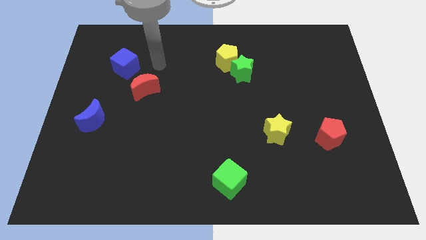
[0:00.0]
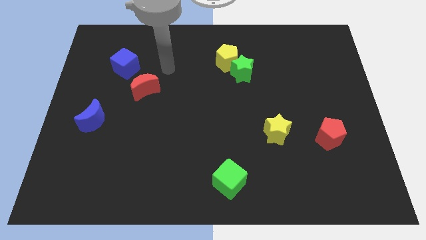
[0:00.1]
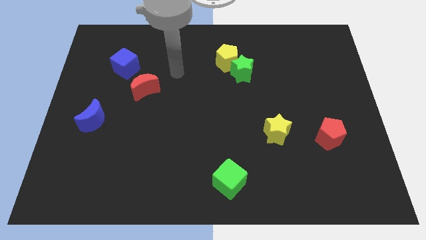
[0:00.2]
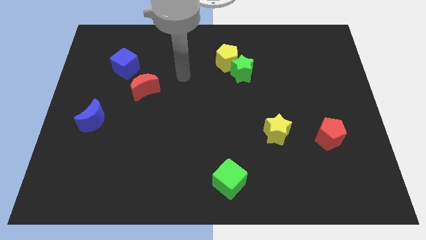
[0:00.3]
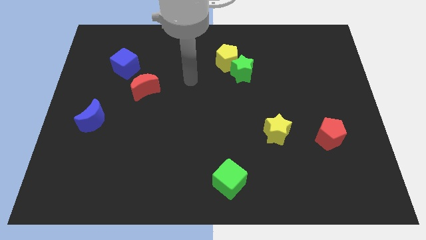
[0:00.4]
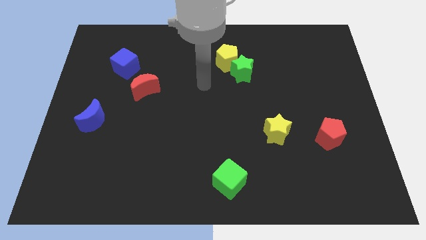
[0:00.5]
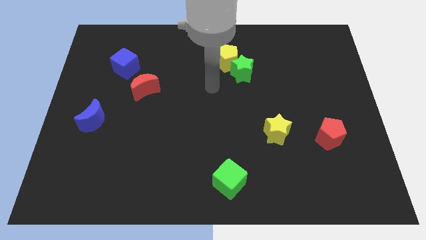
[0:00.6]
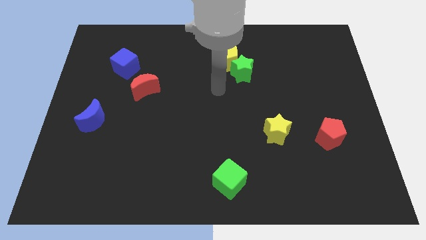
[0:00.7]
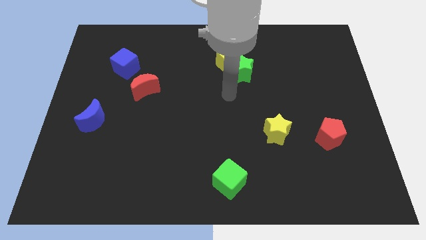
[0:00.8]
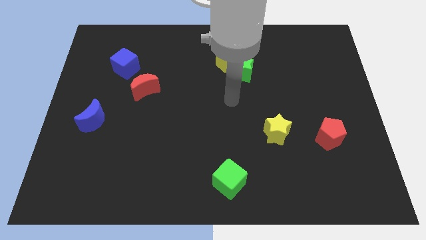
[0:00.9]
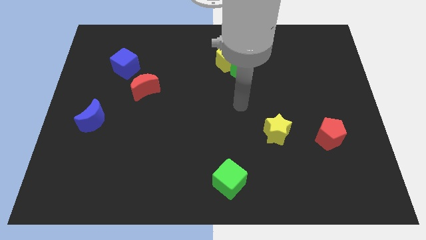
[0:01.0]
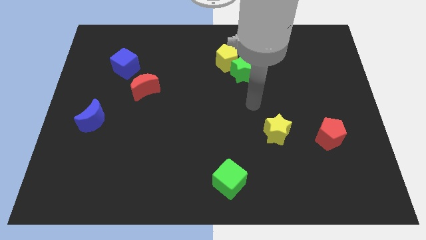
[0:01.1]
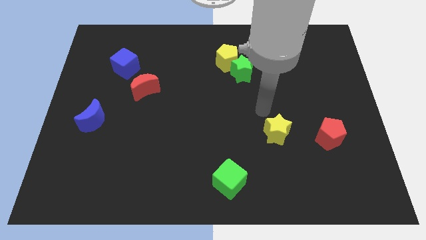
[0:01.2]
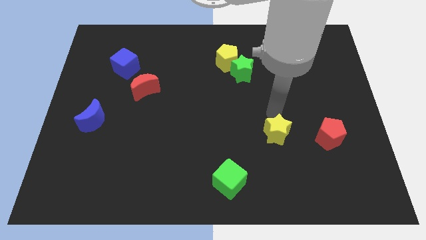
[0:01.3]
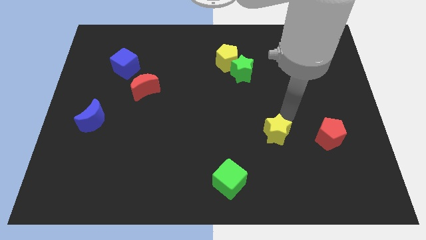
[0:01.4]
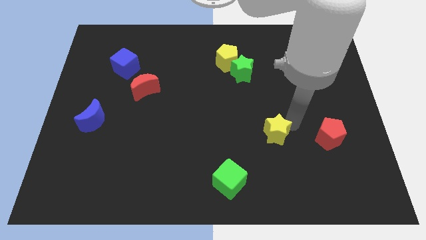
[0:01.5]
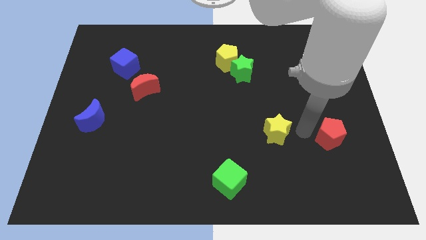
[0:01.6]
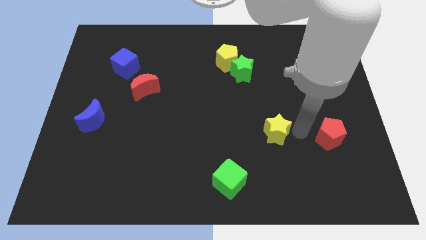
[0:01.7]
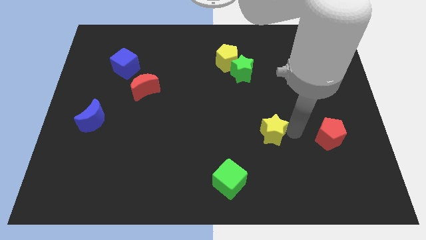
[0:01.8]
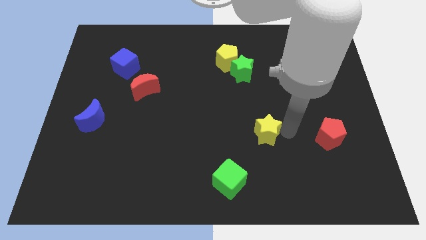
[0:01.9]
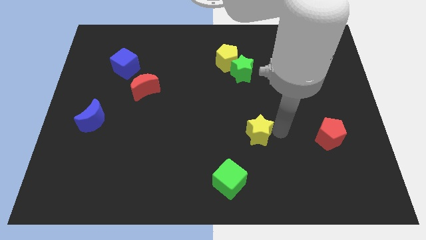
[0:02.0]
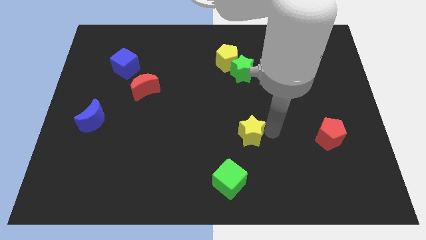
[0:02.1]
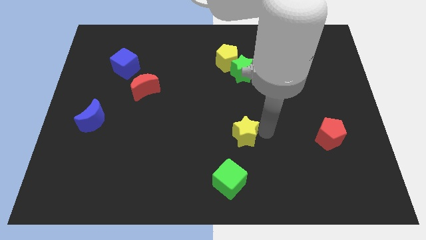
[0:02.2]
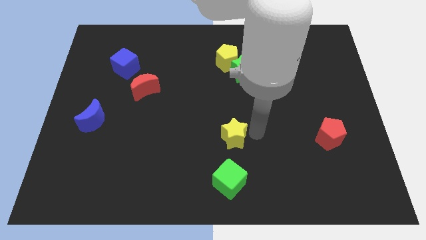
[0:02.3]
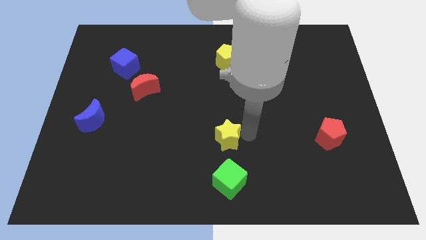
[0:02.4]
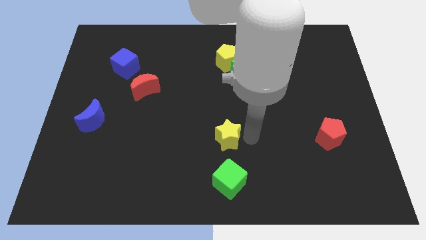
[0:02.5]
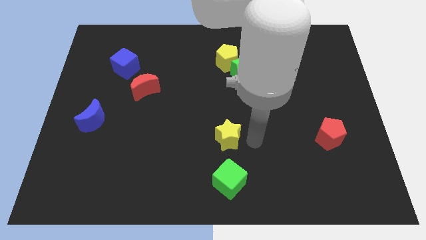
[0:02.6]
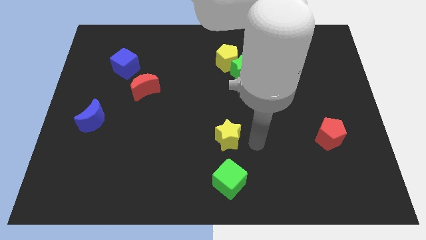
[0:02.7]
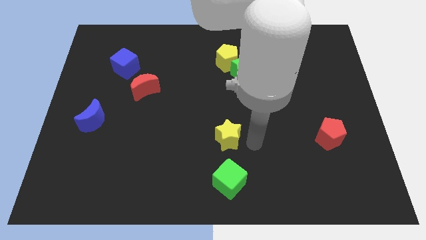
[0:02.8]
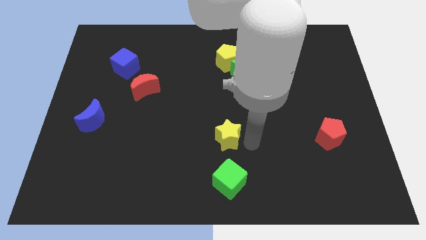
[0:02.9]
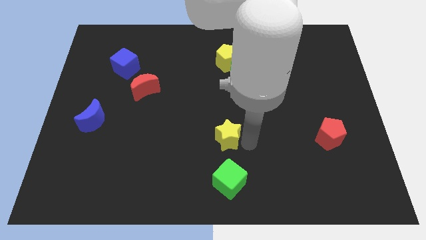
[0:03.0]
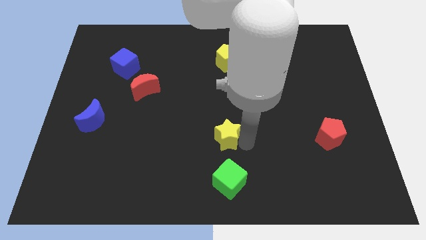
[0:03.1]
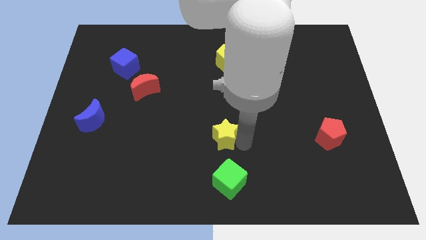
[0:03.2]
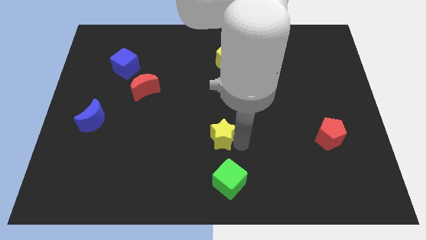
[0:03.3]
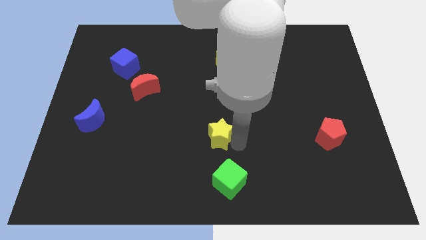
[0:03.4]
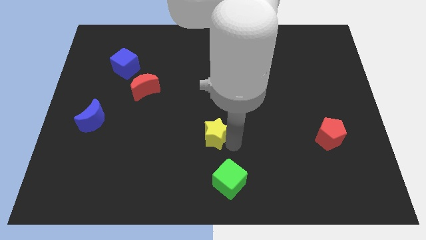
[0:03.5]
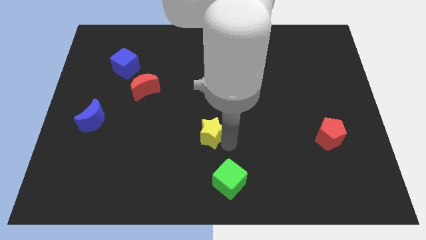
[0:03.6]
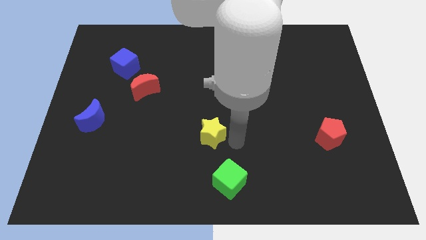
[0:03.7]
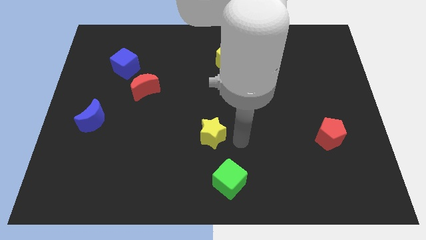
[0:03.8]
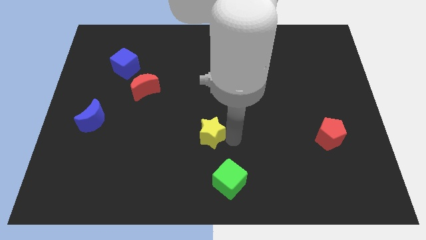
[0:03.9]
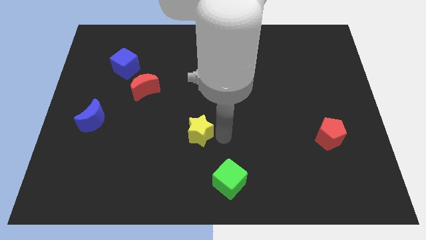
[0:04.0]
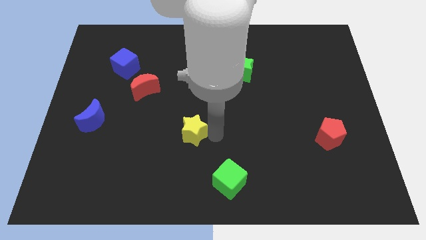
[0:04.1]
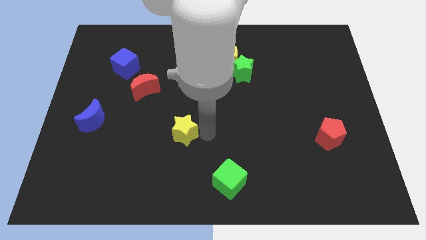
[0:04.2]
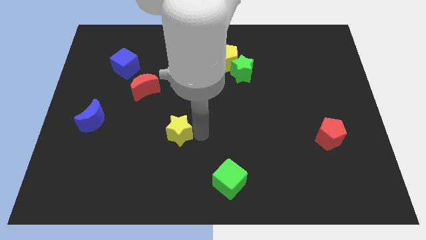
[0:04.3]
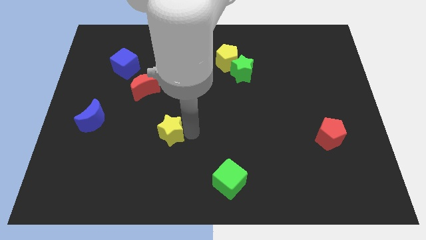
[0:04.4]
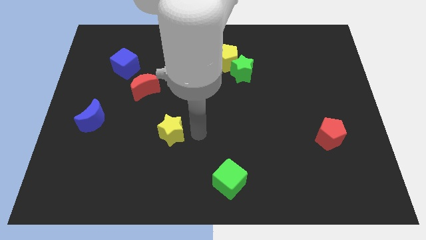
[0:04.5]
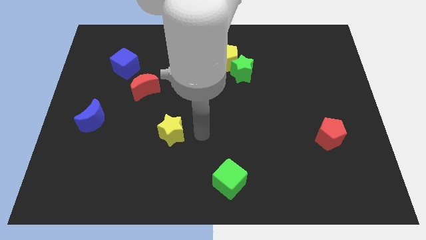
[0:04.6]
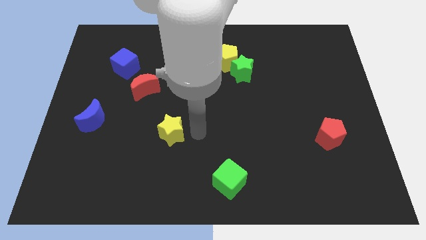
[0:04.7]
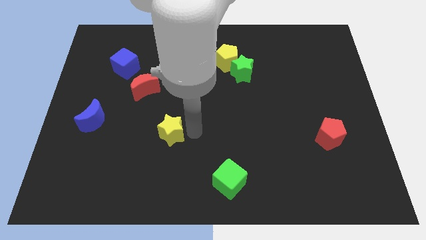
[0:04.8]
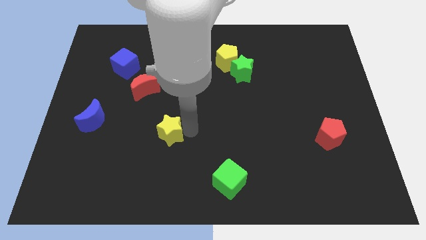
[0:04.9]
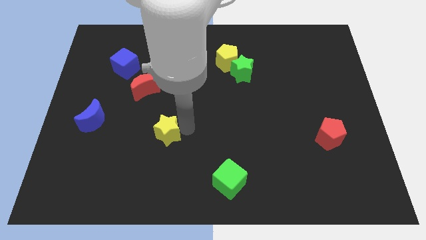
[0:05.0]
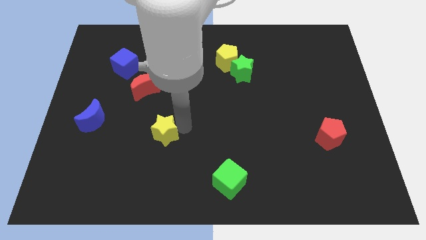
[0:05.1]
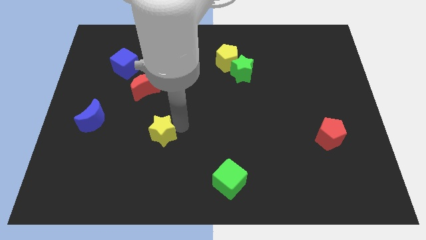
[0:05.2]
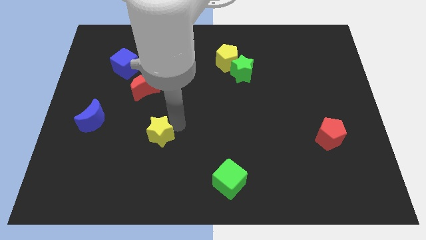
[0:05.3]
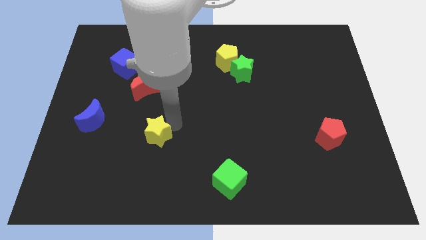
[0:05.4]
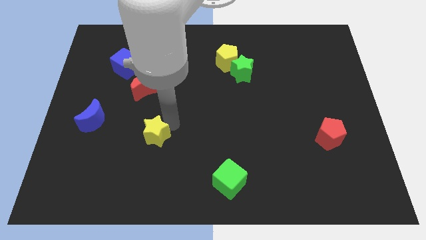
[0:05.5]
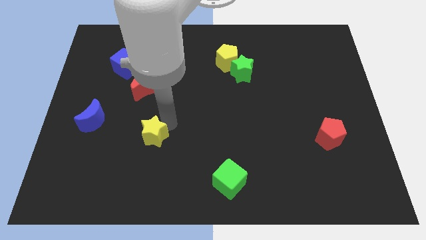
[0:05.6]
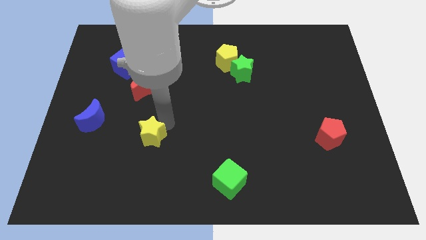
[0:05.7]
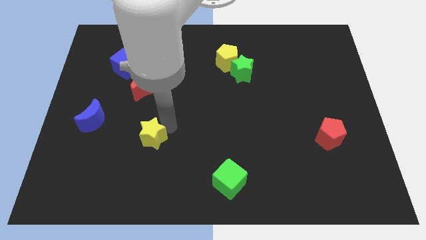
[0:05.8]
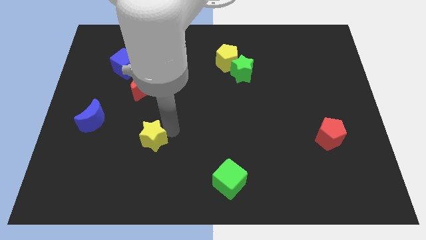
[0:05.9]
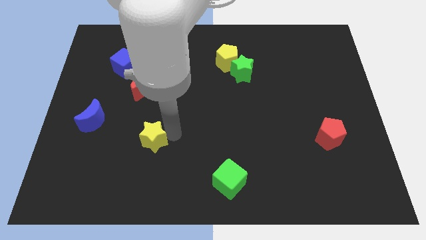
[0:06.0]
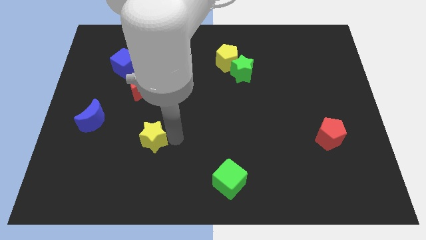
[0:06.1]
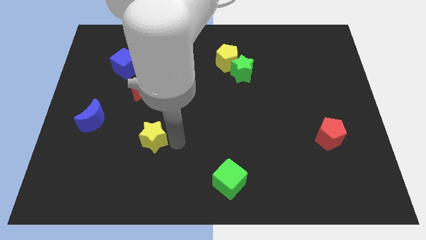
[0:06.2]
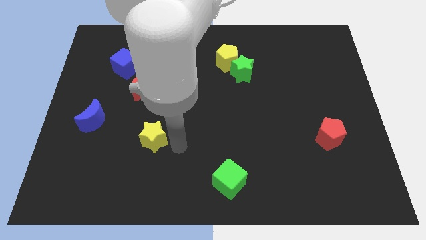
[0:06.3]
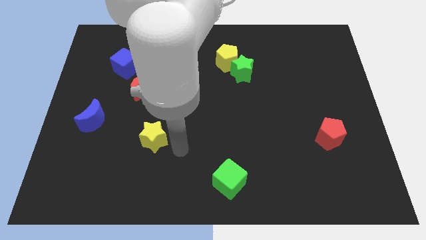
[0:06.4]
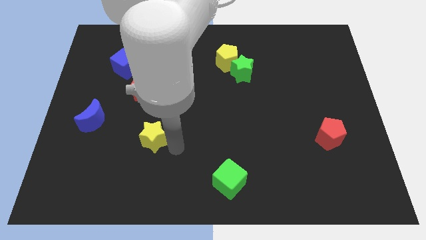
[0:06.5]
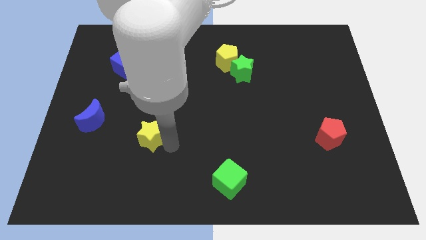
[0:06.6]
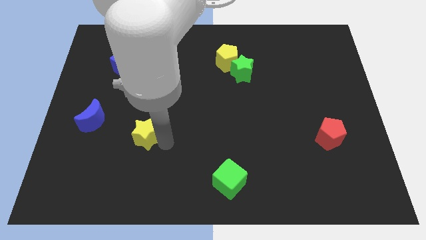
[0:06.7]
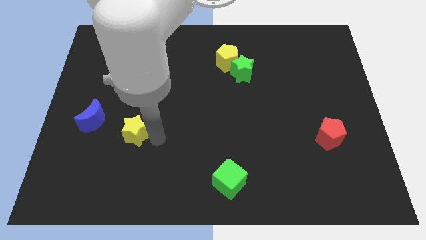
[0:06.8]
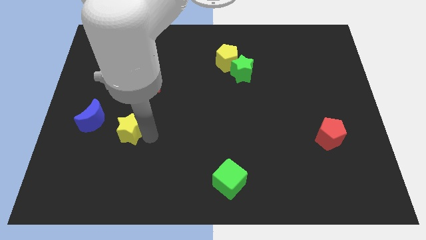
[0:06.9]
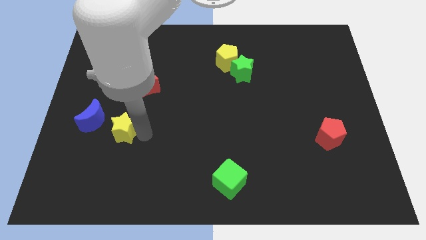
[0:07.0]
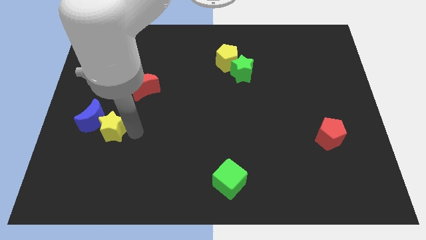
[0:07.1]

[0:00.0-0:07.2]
put the yellow star towards the blue moon

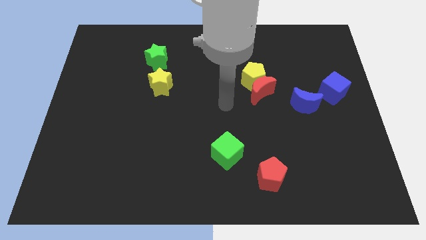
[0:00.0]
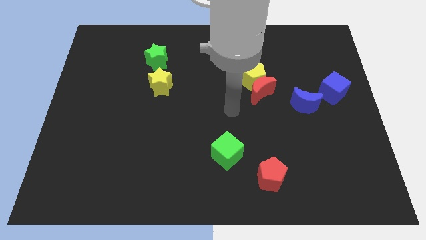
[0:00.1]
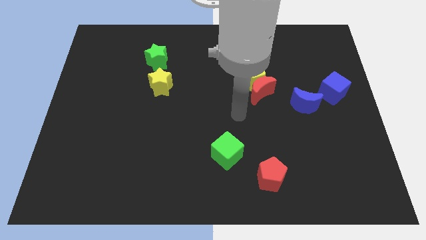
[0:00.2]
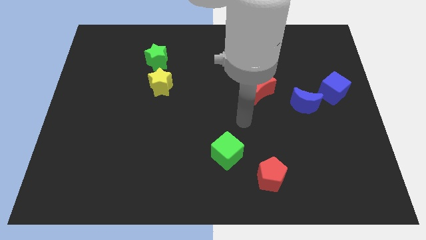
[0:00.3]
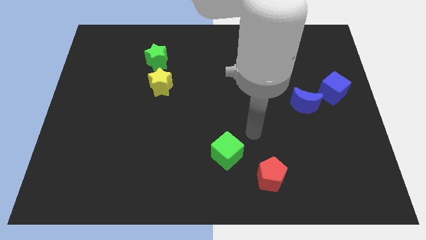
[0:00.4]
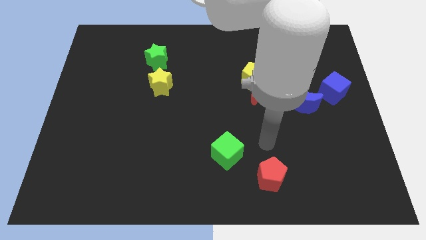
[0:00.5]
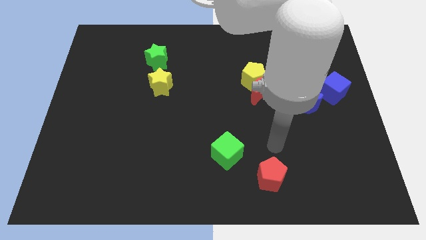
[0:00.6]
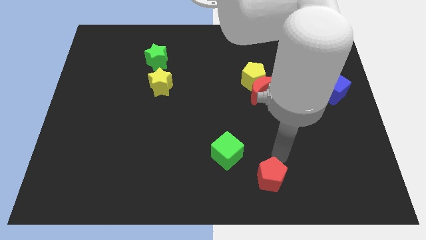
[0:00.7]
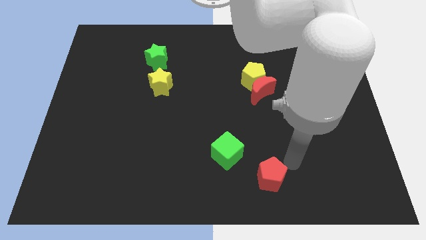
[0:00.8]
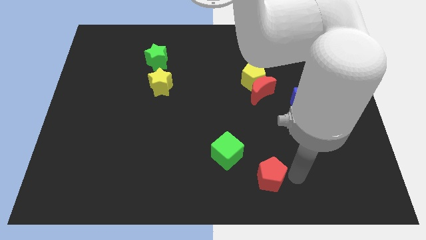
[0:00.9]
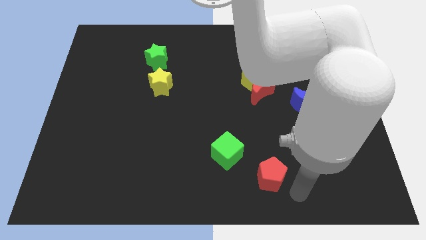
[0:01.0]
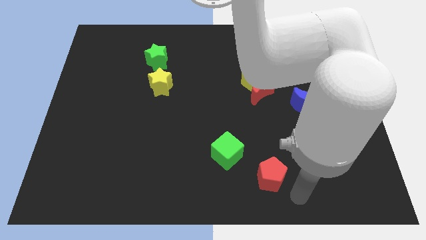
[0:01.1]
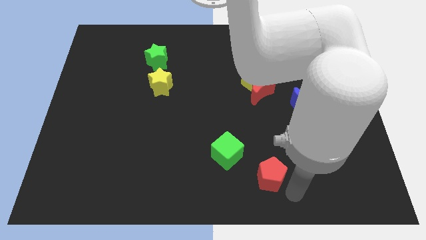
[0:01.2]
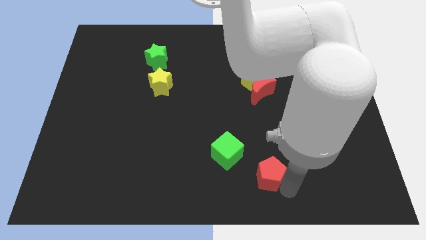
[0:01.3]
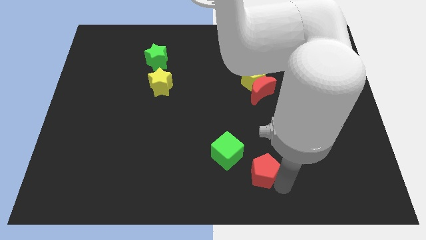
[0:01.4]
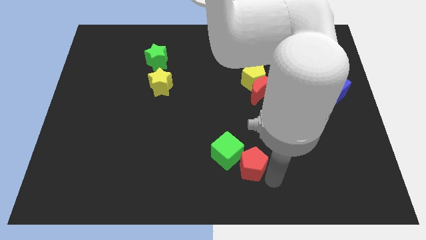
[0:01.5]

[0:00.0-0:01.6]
put the red pentagon towards the green cube
